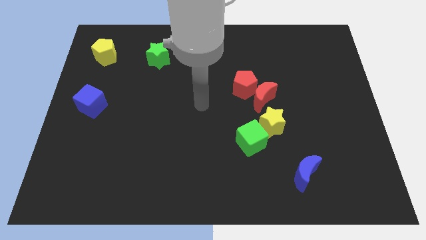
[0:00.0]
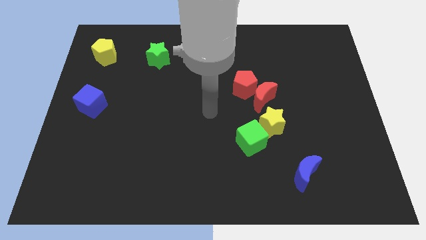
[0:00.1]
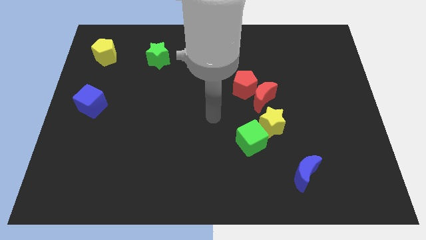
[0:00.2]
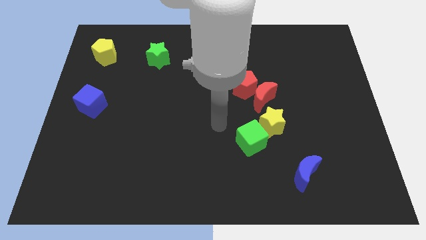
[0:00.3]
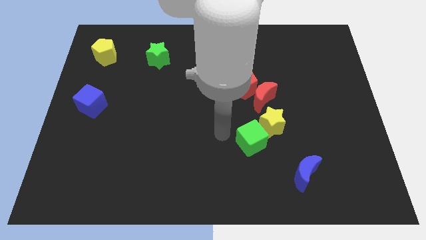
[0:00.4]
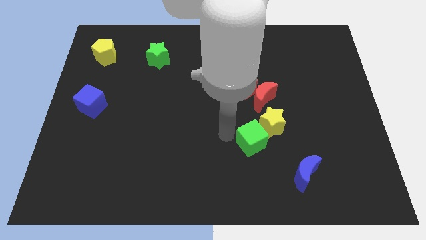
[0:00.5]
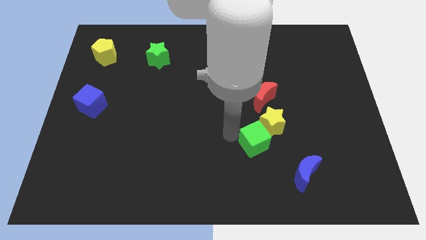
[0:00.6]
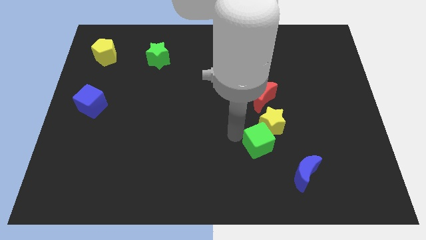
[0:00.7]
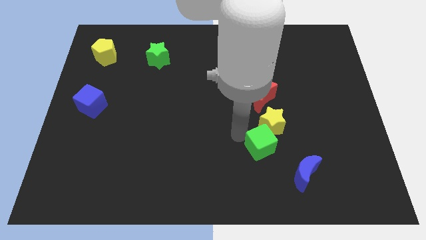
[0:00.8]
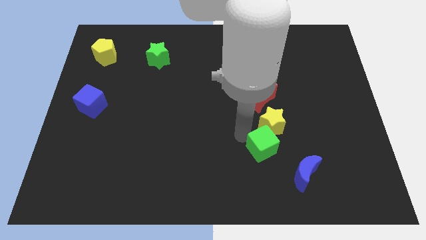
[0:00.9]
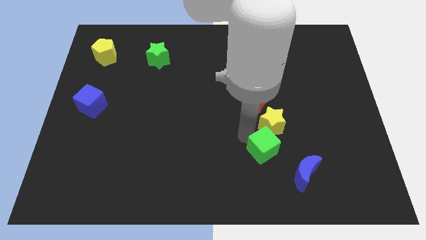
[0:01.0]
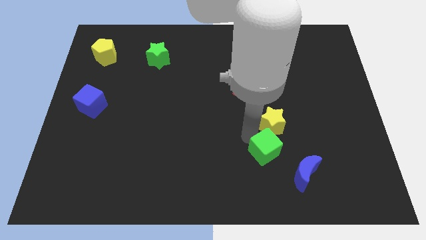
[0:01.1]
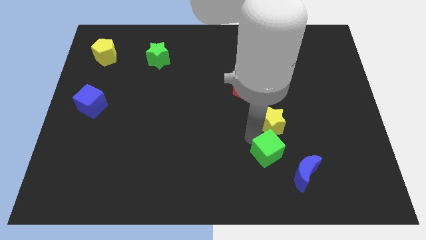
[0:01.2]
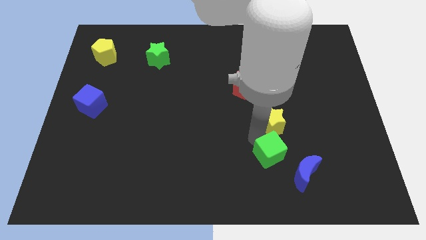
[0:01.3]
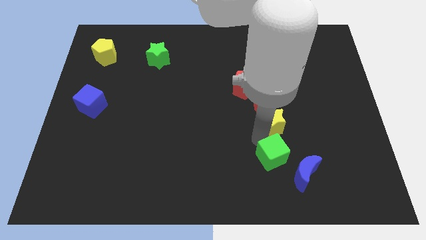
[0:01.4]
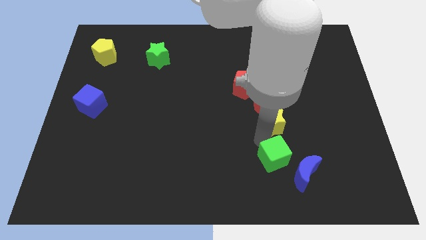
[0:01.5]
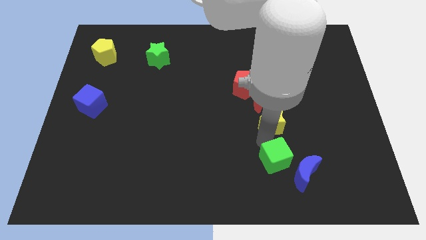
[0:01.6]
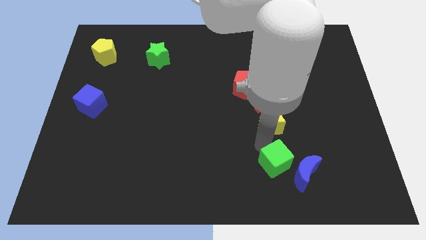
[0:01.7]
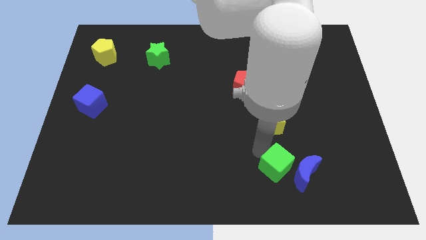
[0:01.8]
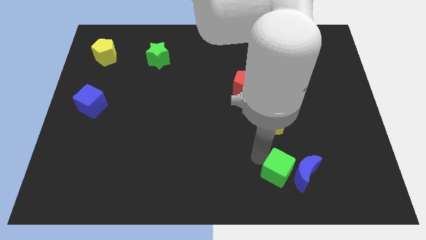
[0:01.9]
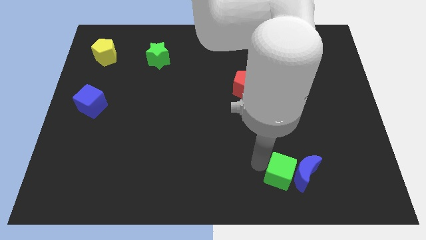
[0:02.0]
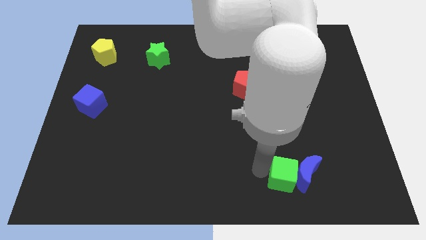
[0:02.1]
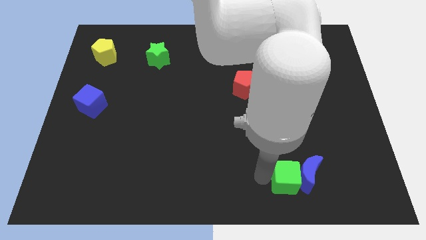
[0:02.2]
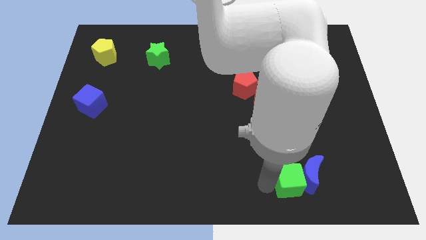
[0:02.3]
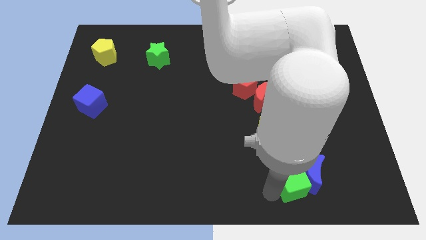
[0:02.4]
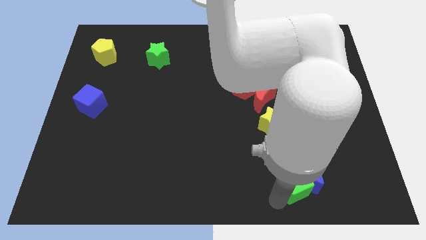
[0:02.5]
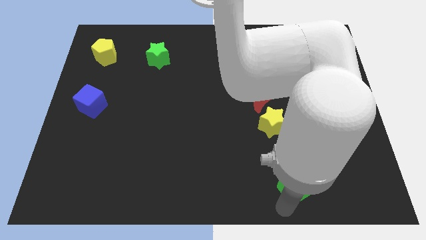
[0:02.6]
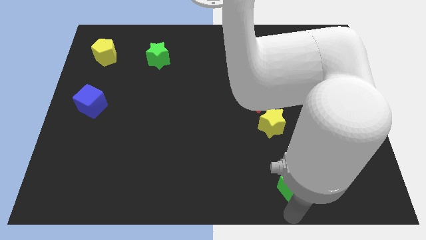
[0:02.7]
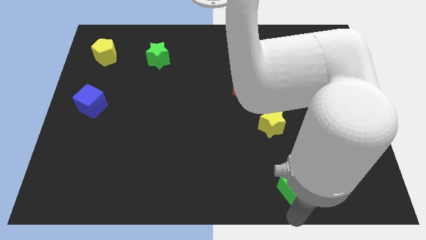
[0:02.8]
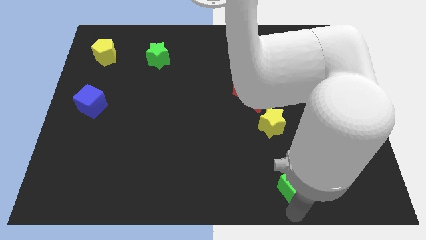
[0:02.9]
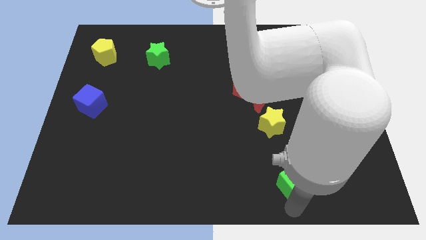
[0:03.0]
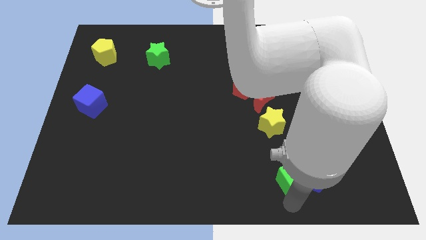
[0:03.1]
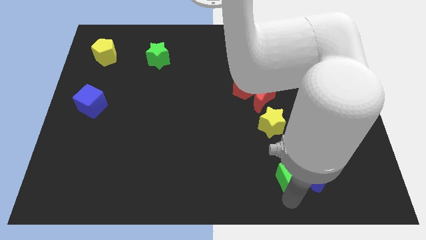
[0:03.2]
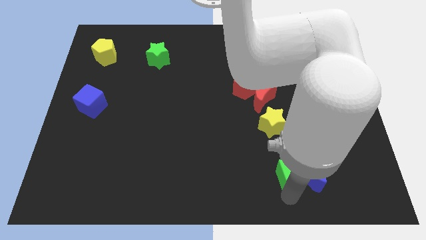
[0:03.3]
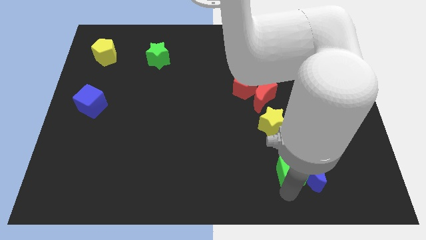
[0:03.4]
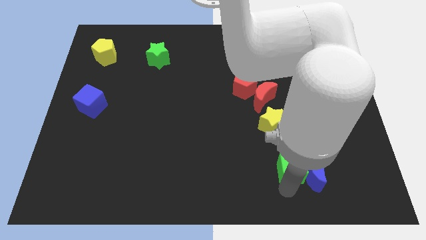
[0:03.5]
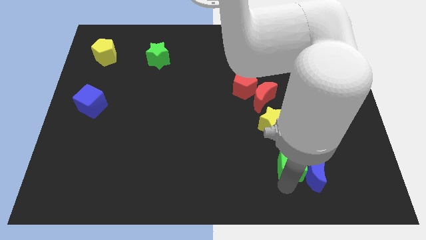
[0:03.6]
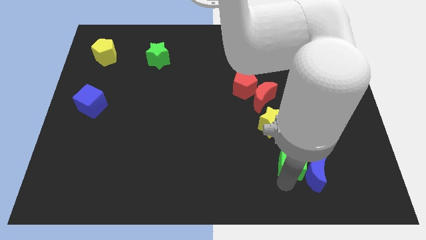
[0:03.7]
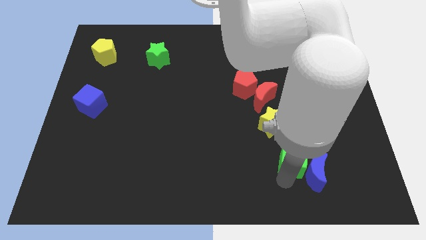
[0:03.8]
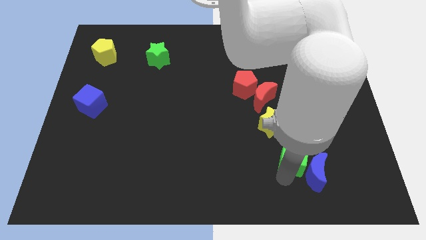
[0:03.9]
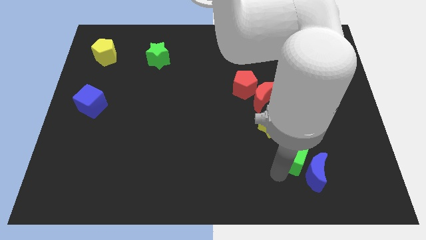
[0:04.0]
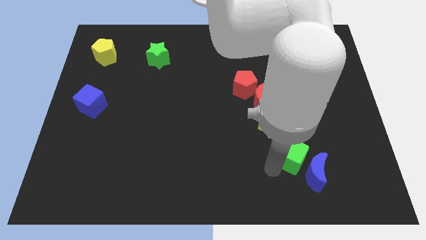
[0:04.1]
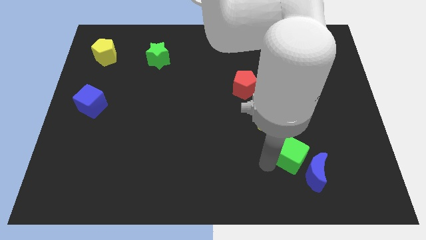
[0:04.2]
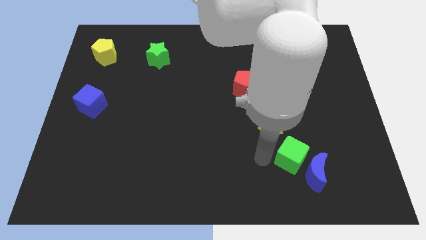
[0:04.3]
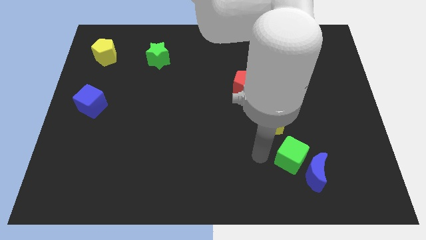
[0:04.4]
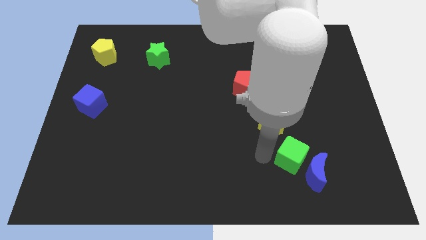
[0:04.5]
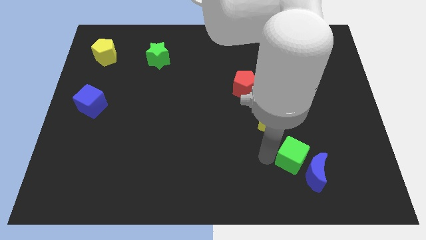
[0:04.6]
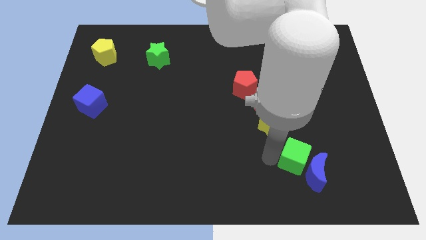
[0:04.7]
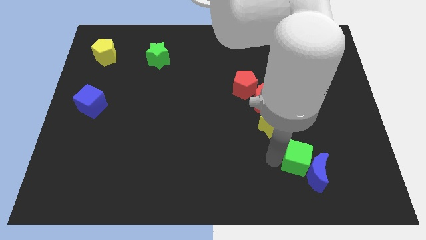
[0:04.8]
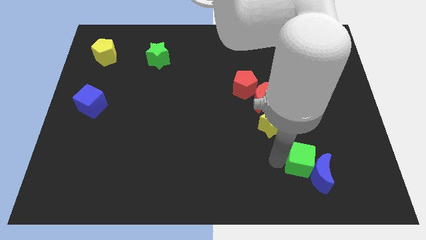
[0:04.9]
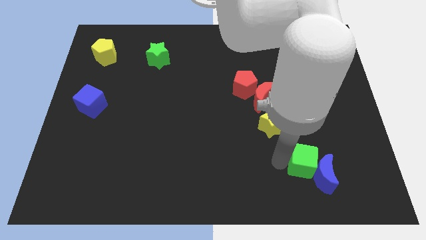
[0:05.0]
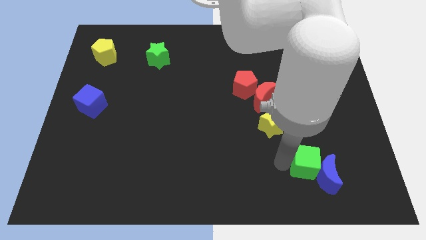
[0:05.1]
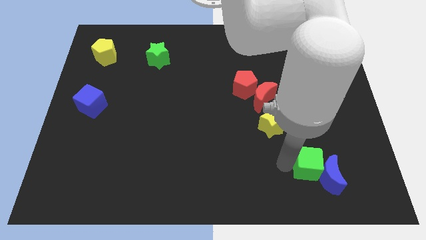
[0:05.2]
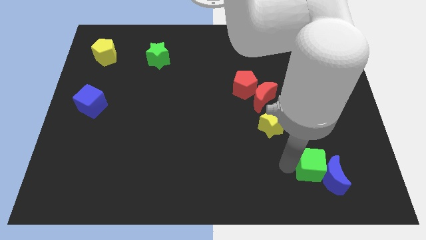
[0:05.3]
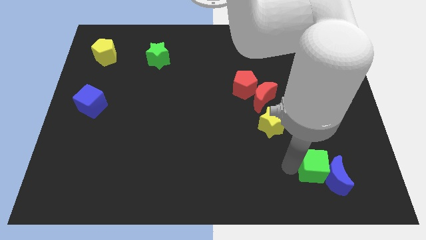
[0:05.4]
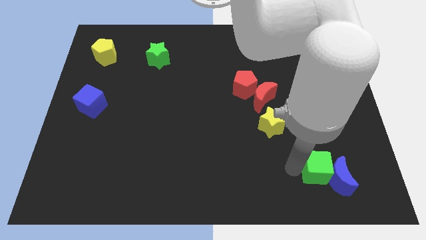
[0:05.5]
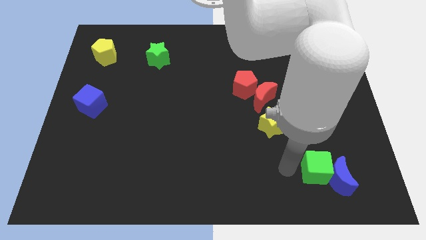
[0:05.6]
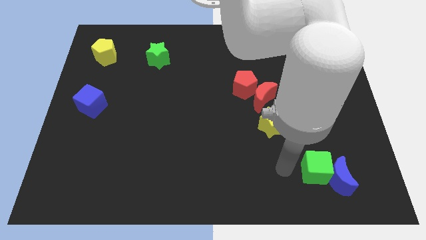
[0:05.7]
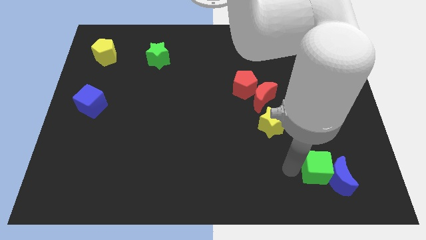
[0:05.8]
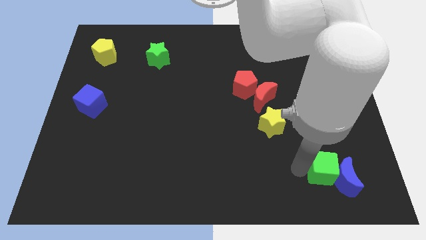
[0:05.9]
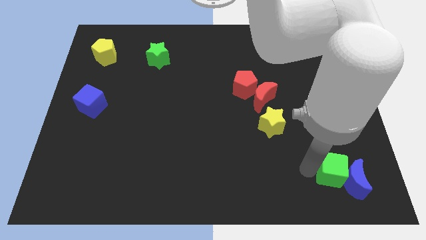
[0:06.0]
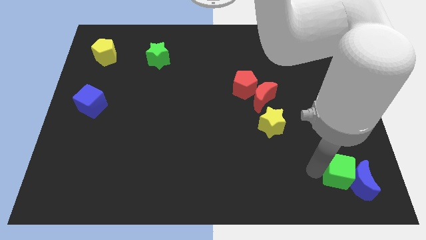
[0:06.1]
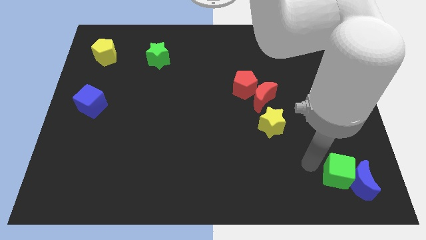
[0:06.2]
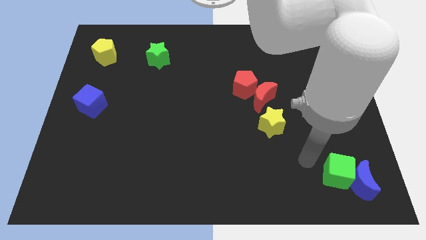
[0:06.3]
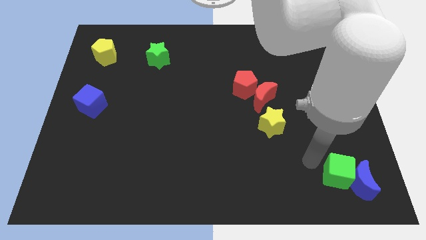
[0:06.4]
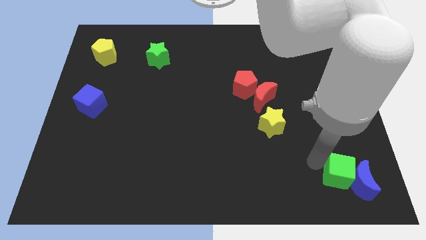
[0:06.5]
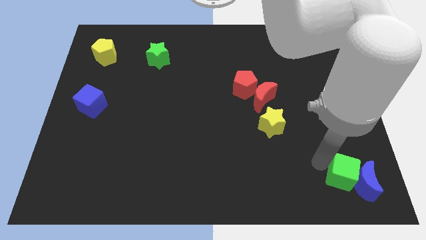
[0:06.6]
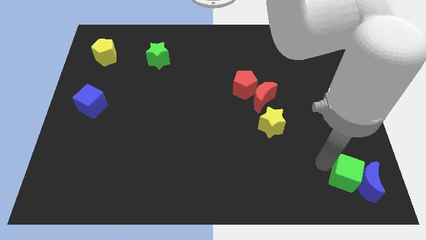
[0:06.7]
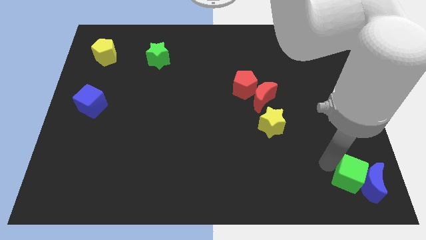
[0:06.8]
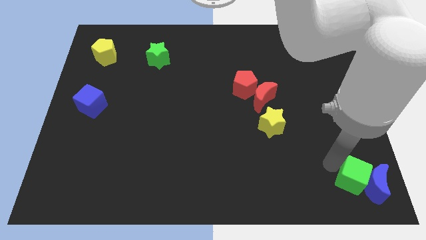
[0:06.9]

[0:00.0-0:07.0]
slide the green cube to the bottom right of the board
